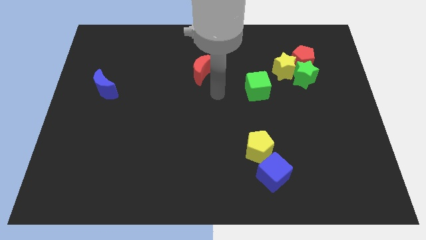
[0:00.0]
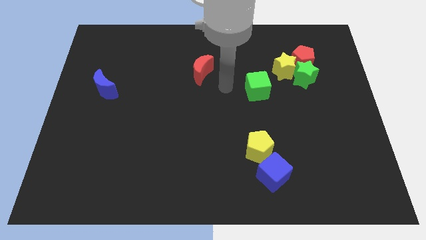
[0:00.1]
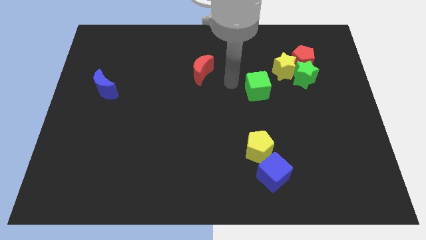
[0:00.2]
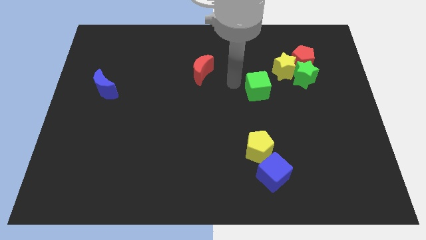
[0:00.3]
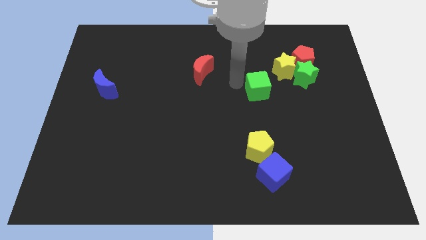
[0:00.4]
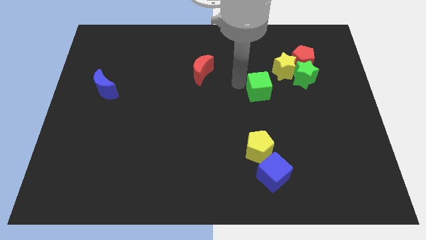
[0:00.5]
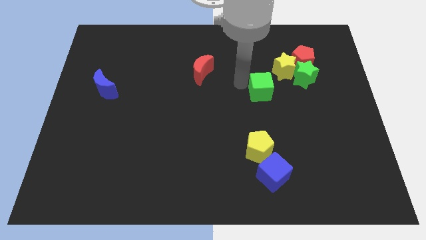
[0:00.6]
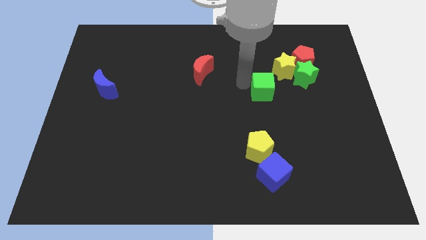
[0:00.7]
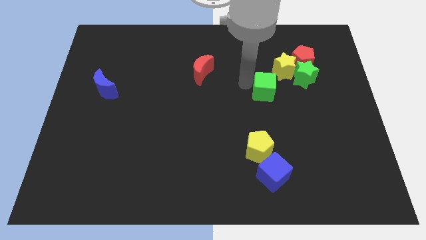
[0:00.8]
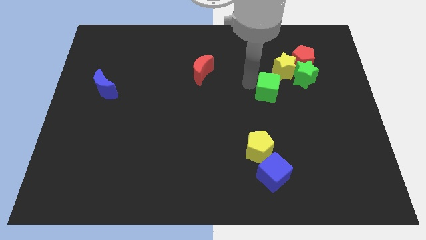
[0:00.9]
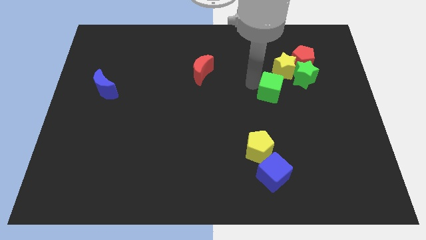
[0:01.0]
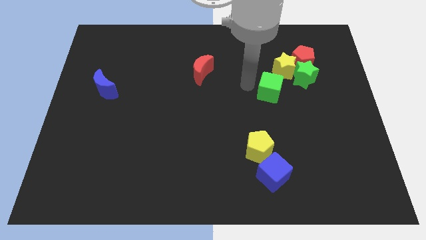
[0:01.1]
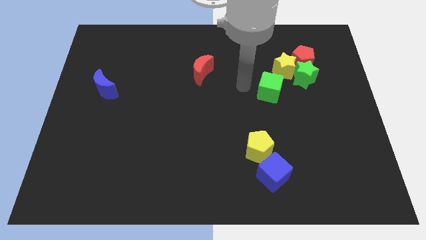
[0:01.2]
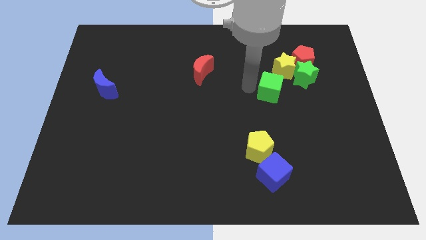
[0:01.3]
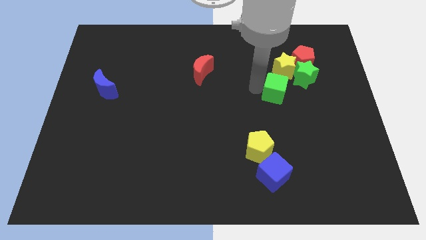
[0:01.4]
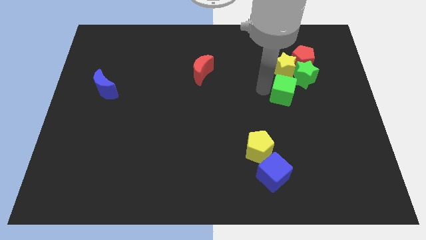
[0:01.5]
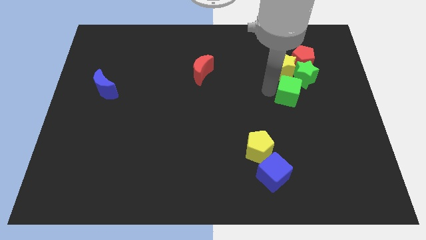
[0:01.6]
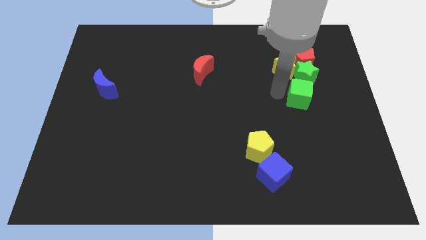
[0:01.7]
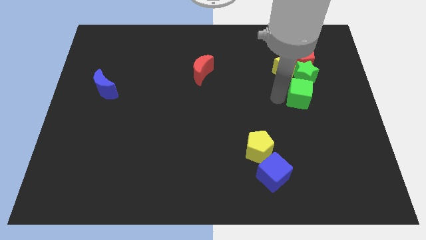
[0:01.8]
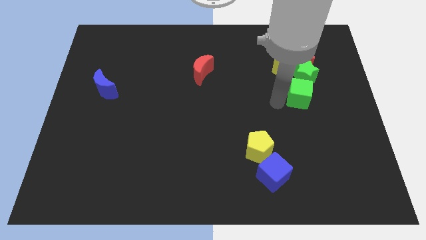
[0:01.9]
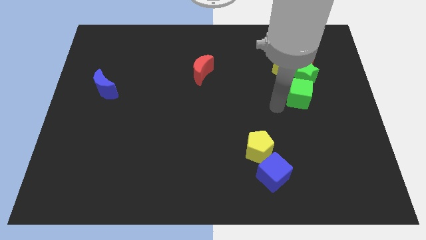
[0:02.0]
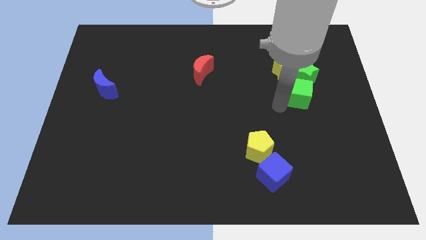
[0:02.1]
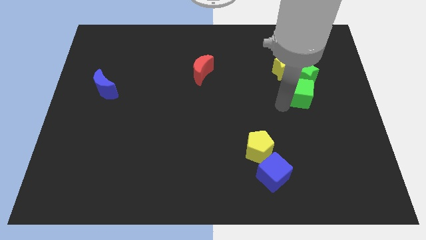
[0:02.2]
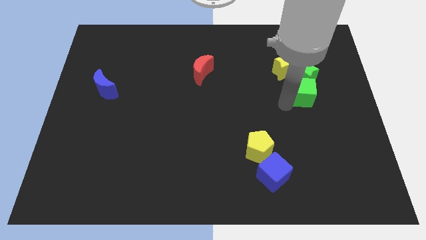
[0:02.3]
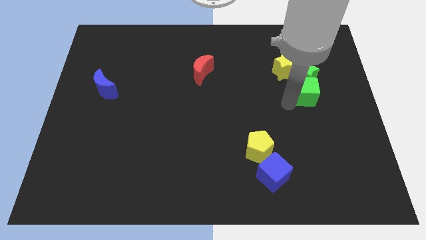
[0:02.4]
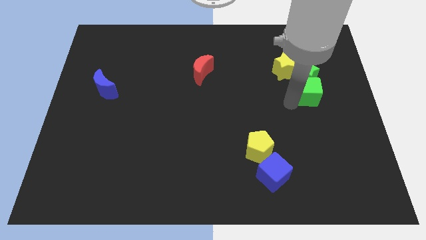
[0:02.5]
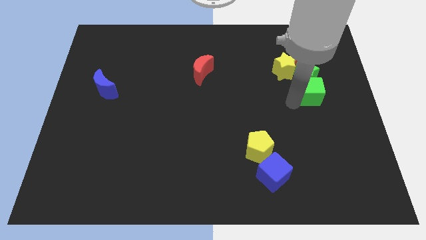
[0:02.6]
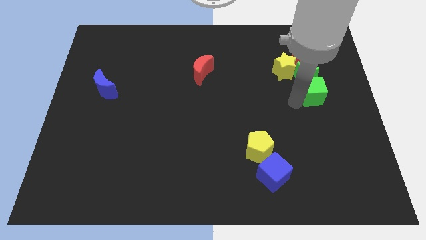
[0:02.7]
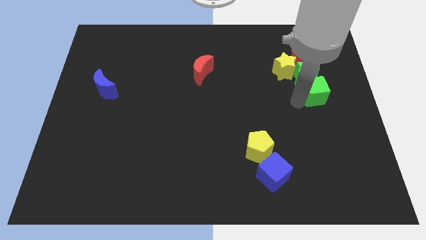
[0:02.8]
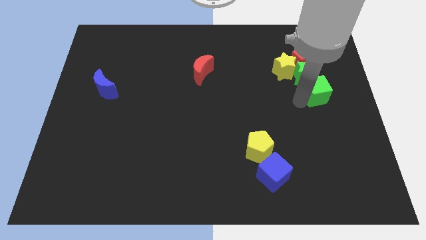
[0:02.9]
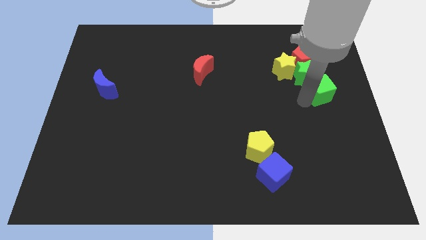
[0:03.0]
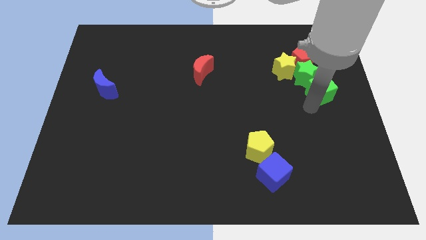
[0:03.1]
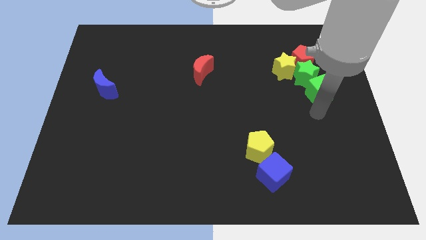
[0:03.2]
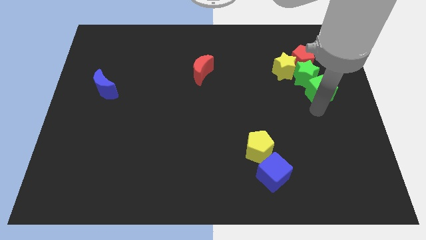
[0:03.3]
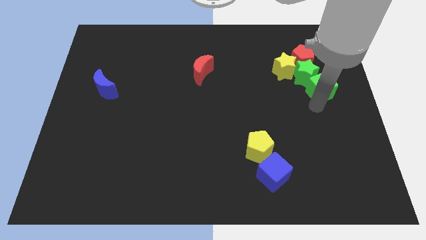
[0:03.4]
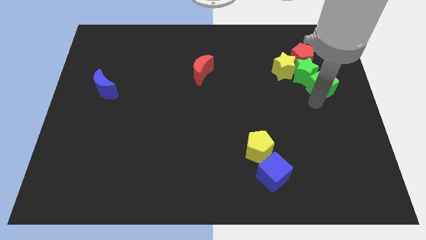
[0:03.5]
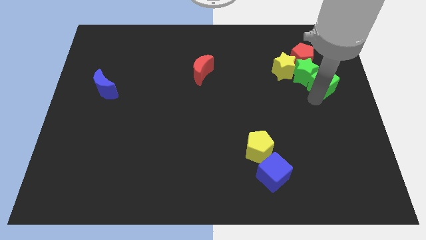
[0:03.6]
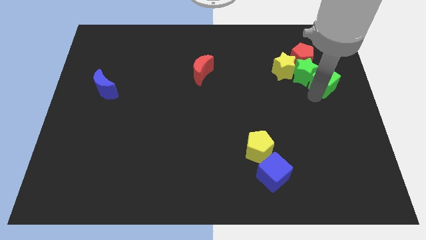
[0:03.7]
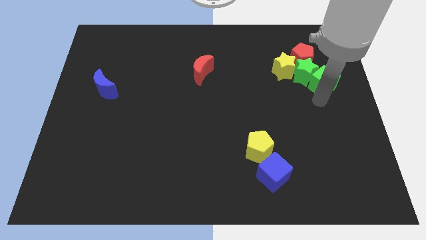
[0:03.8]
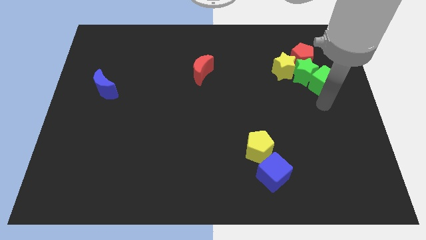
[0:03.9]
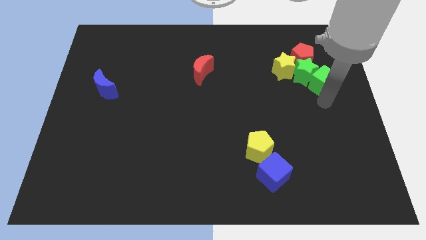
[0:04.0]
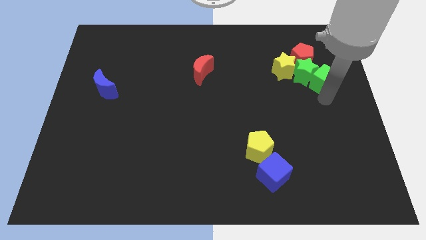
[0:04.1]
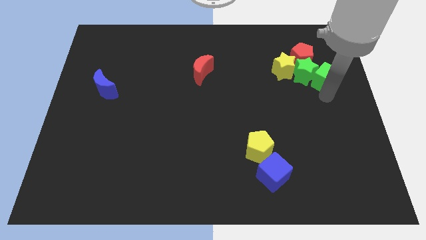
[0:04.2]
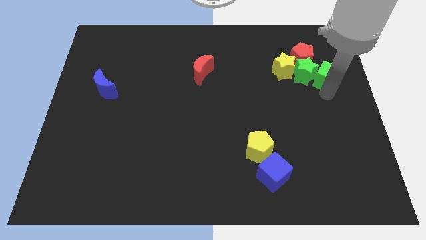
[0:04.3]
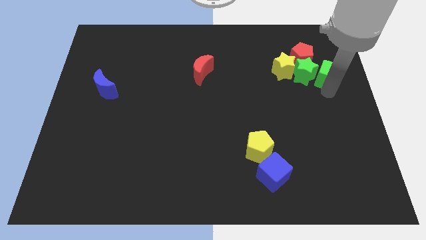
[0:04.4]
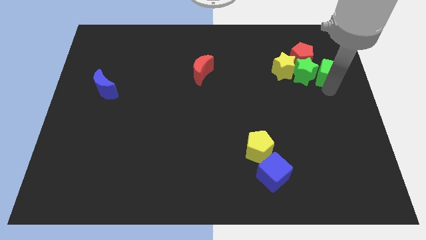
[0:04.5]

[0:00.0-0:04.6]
move the green cube to the top right side of the green star

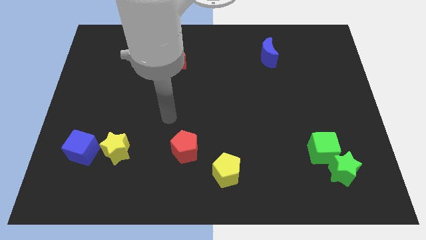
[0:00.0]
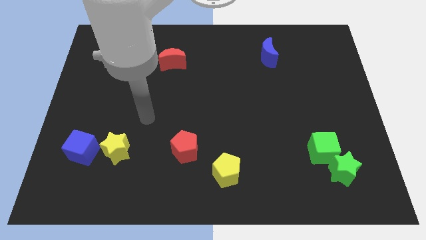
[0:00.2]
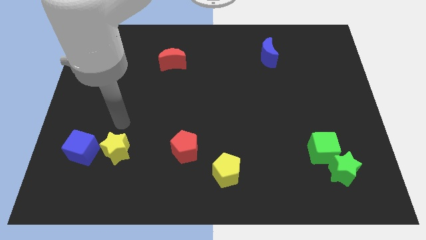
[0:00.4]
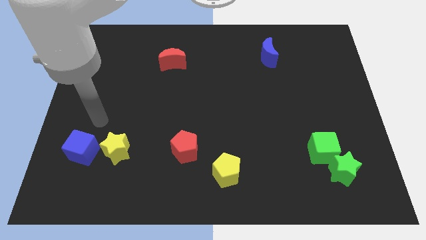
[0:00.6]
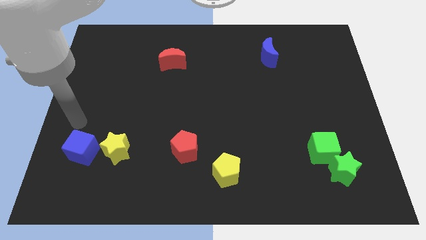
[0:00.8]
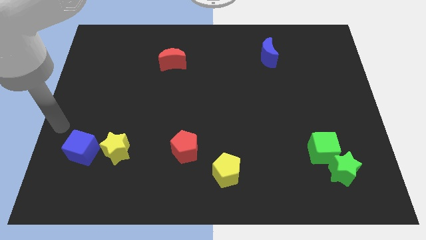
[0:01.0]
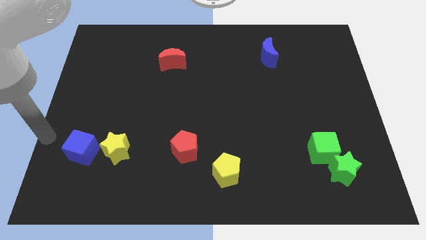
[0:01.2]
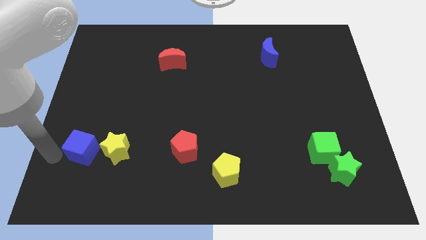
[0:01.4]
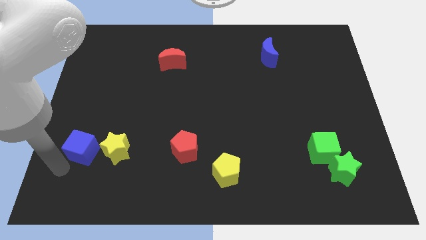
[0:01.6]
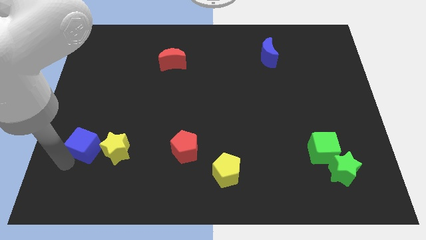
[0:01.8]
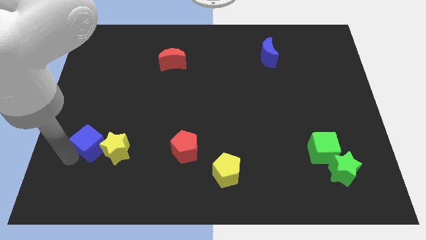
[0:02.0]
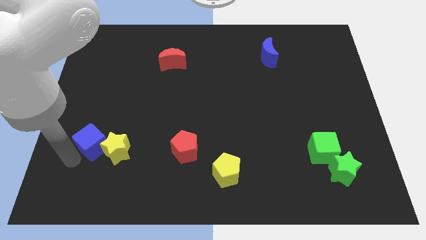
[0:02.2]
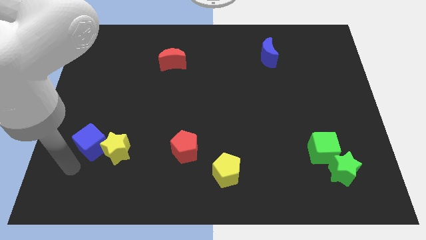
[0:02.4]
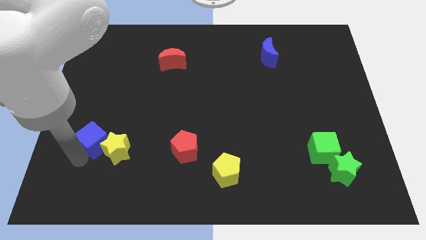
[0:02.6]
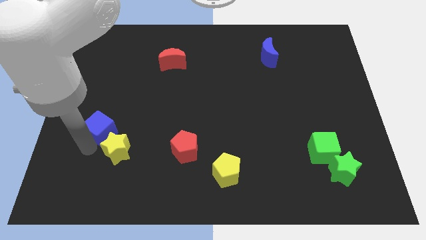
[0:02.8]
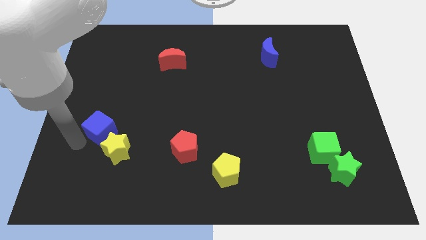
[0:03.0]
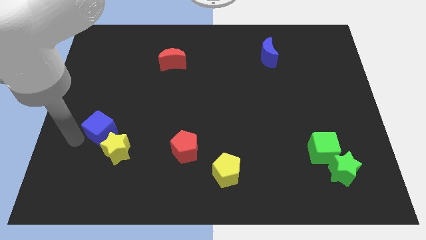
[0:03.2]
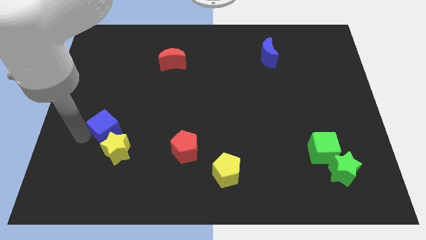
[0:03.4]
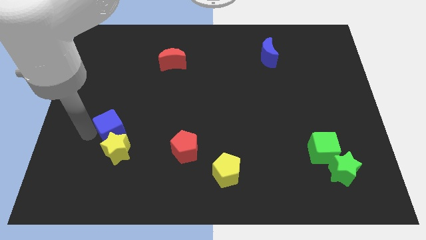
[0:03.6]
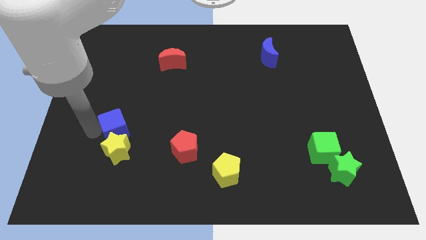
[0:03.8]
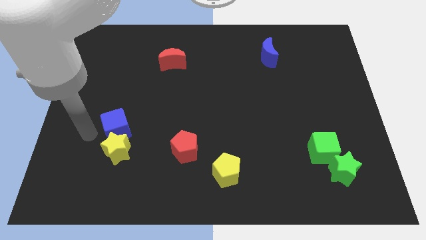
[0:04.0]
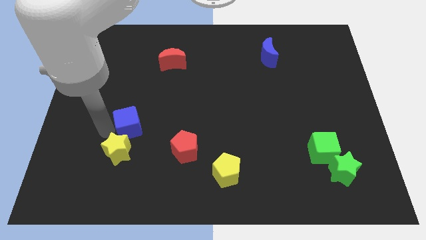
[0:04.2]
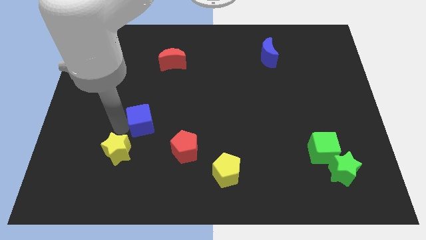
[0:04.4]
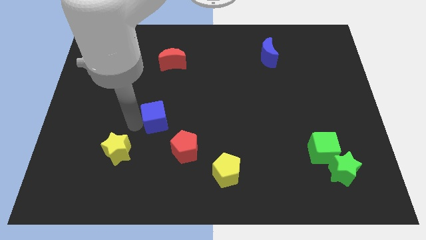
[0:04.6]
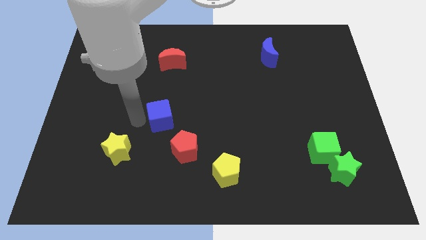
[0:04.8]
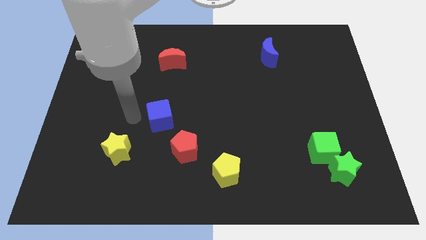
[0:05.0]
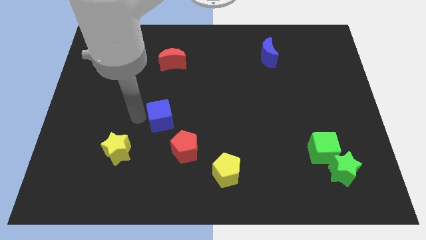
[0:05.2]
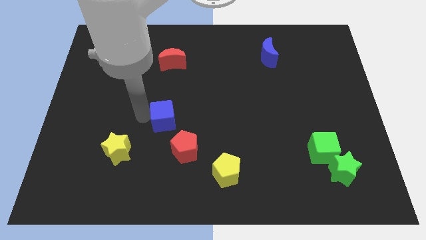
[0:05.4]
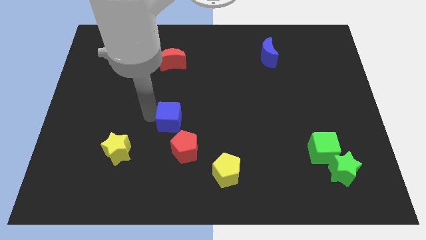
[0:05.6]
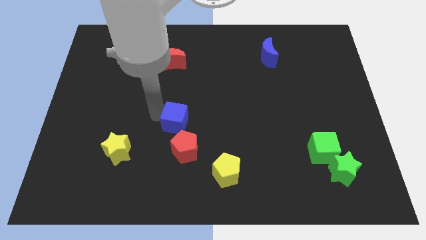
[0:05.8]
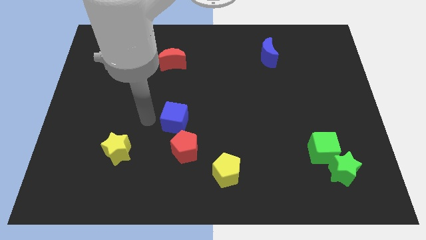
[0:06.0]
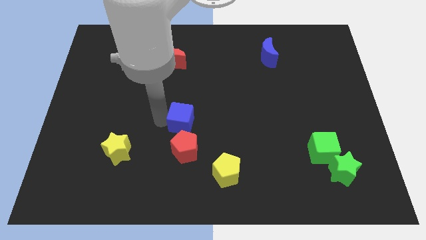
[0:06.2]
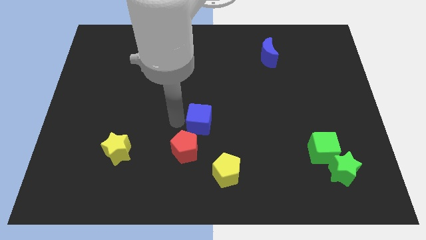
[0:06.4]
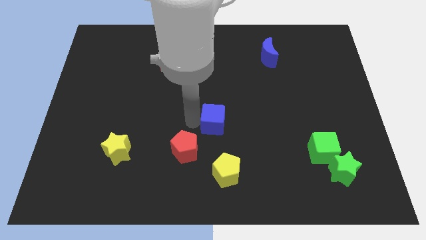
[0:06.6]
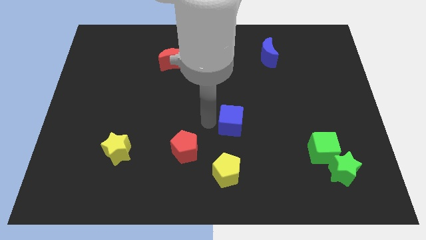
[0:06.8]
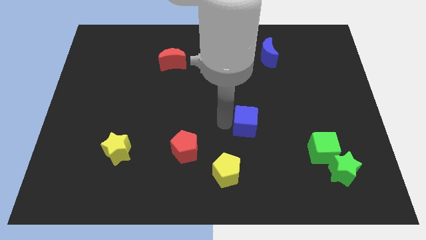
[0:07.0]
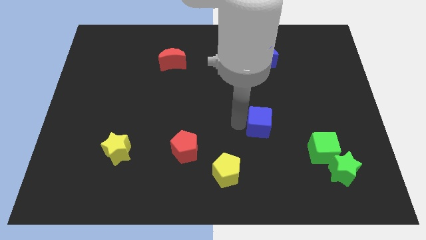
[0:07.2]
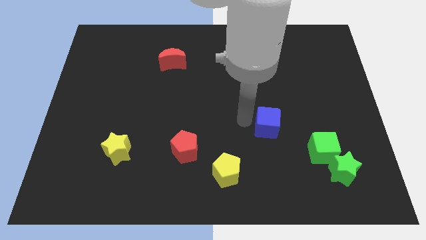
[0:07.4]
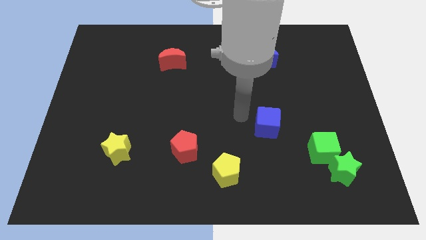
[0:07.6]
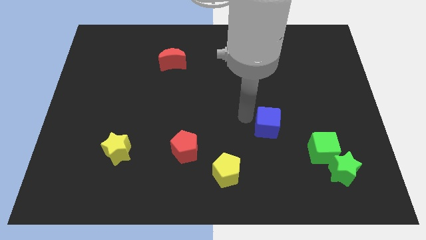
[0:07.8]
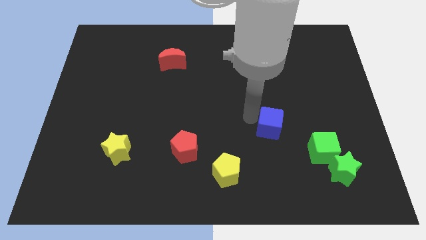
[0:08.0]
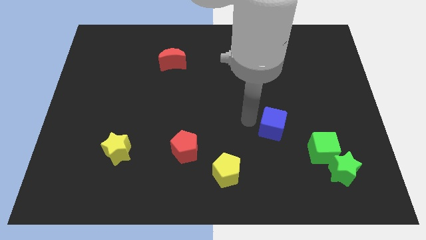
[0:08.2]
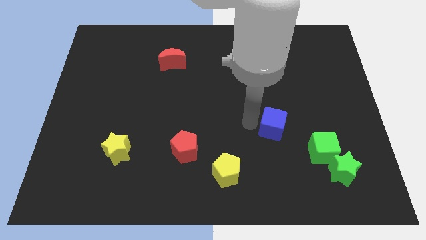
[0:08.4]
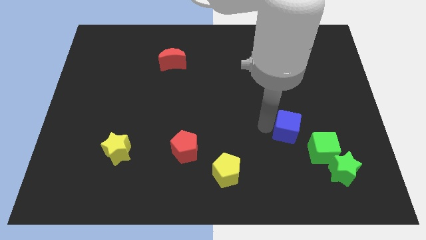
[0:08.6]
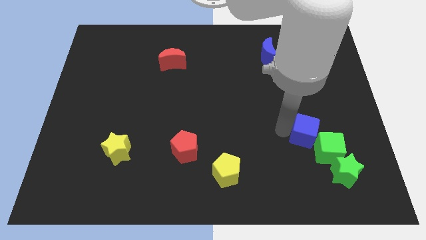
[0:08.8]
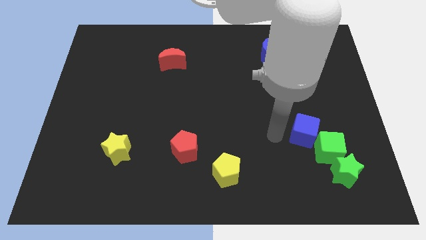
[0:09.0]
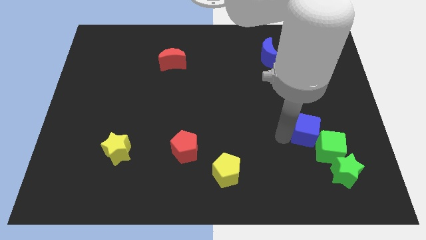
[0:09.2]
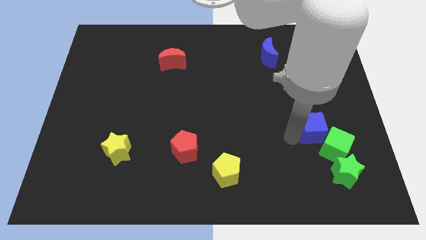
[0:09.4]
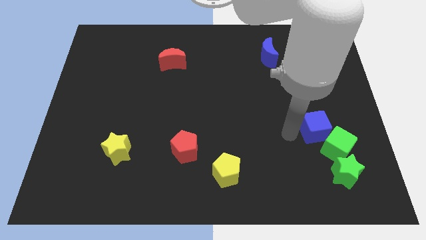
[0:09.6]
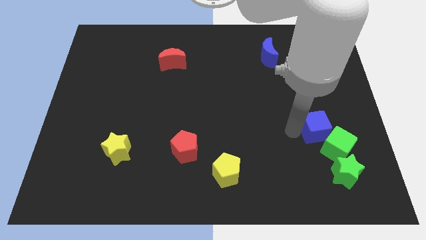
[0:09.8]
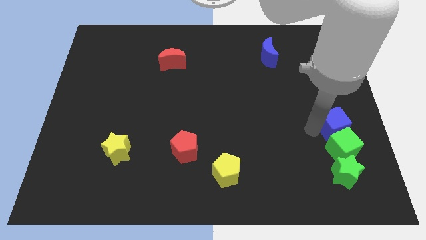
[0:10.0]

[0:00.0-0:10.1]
slide the blue cube to the top right of the green cube
